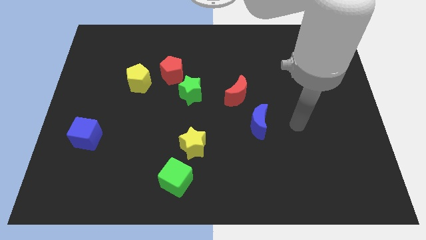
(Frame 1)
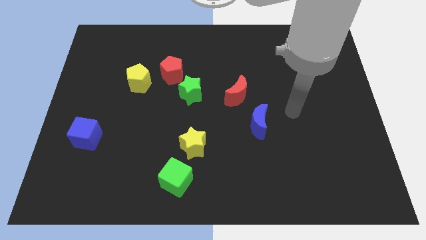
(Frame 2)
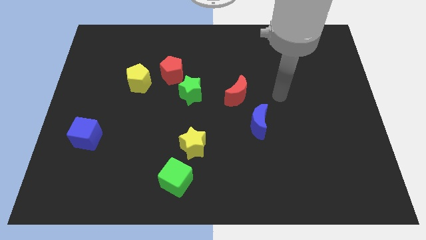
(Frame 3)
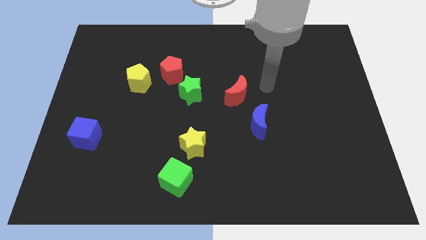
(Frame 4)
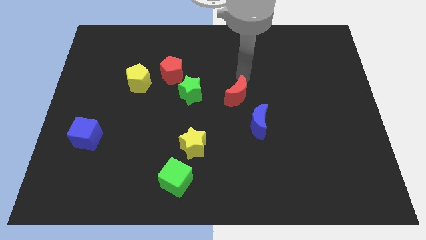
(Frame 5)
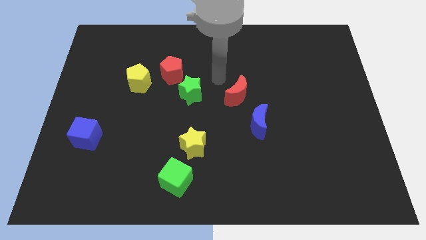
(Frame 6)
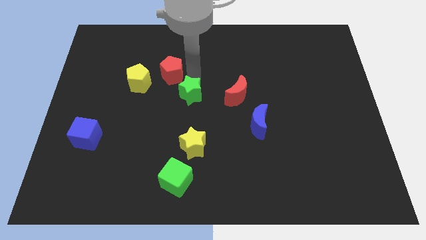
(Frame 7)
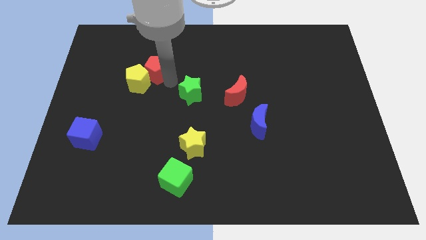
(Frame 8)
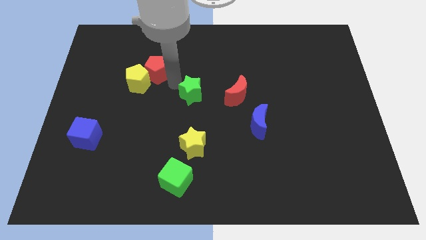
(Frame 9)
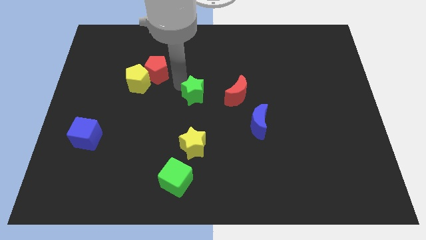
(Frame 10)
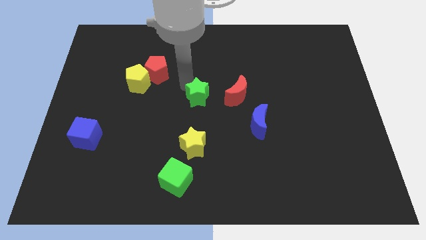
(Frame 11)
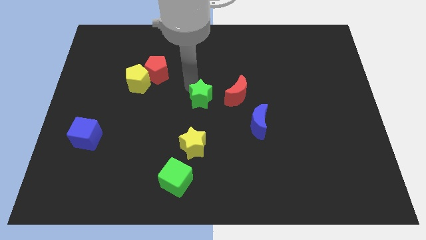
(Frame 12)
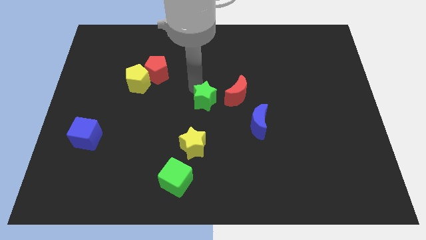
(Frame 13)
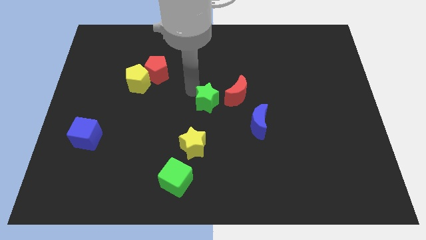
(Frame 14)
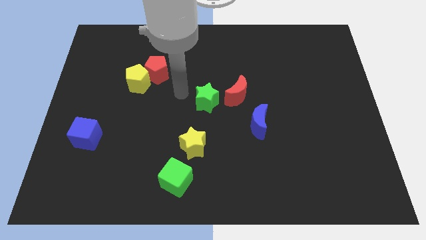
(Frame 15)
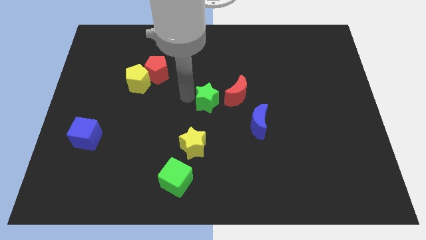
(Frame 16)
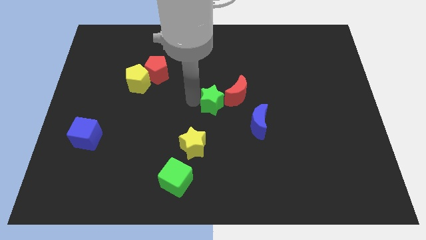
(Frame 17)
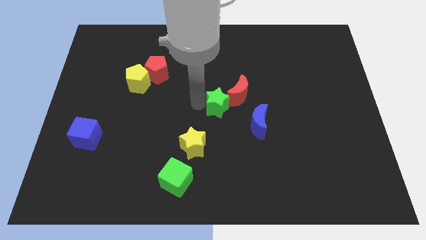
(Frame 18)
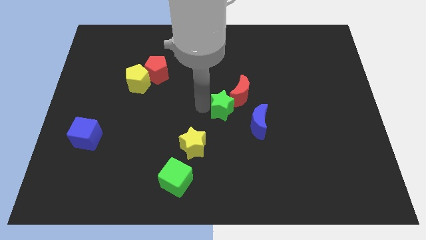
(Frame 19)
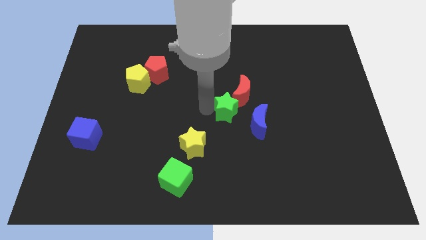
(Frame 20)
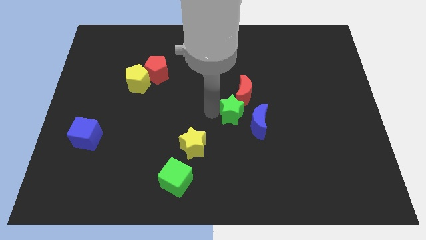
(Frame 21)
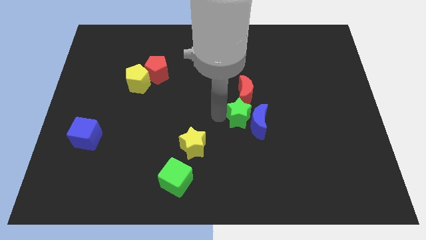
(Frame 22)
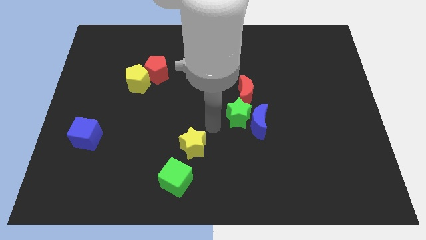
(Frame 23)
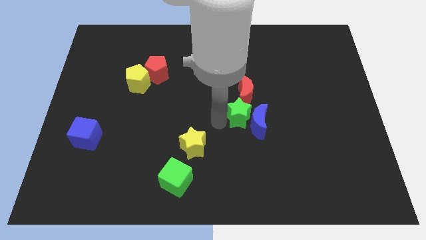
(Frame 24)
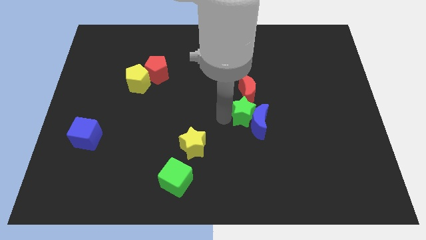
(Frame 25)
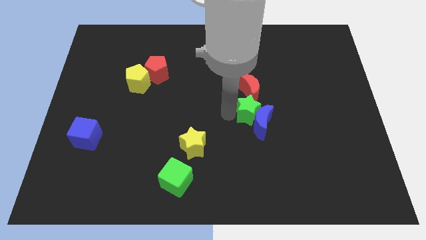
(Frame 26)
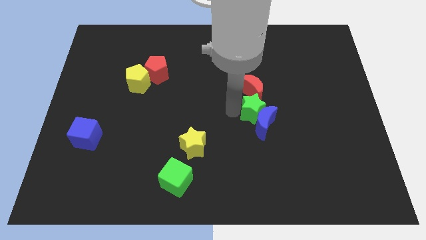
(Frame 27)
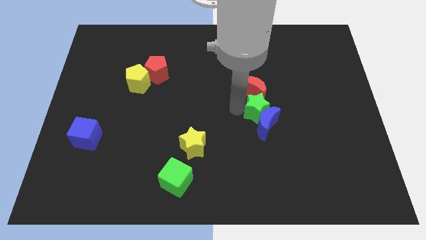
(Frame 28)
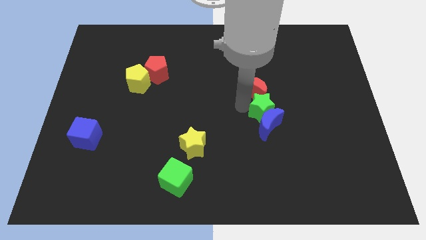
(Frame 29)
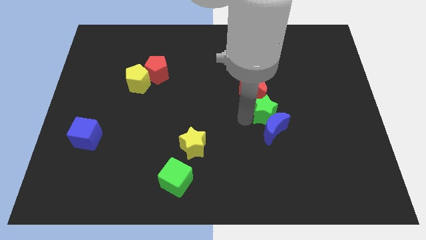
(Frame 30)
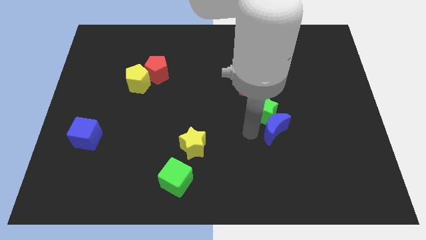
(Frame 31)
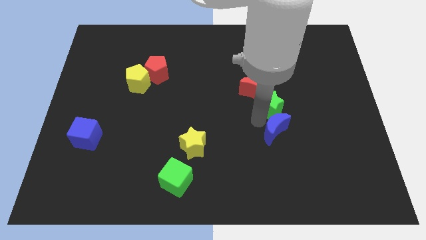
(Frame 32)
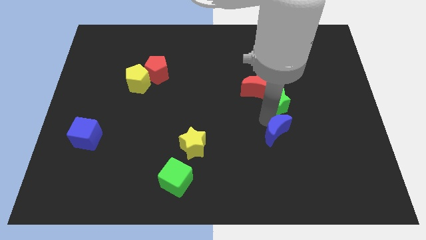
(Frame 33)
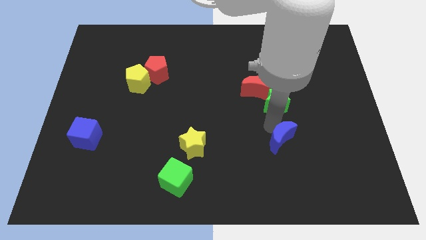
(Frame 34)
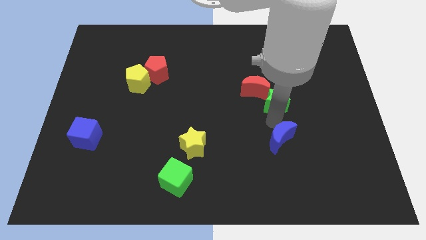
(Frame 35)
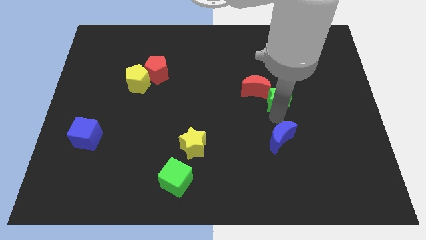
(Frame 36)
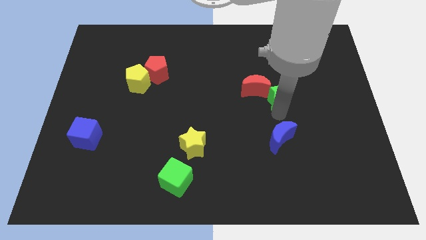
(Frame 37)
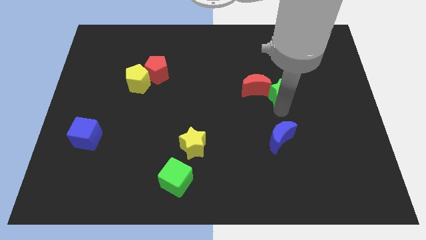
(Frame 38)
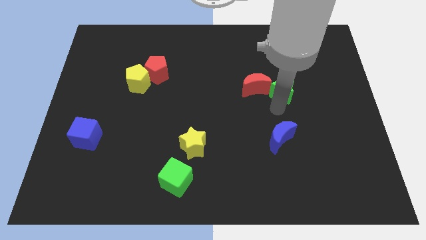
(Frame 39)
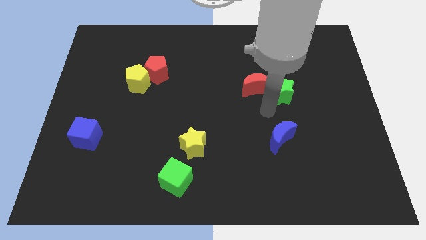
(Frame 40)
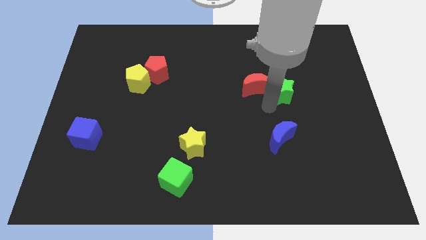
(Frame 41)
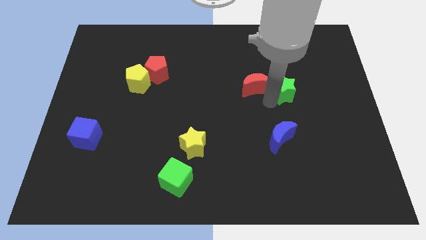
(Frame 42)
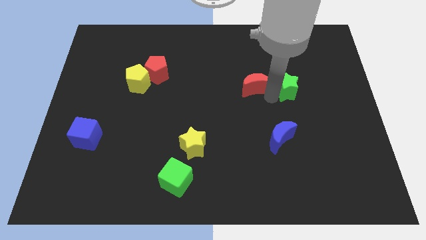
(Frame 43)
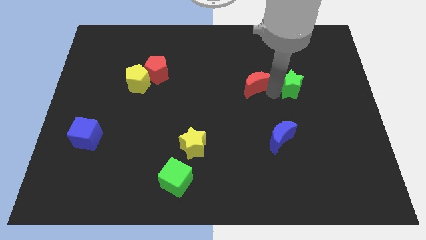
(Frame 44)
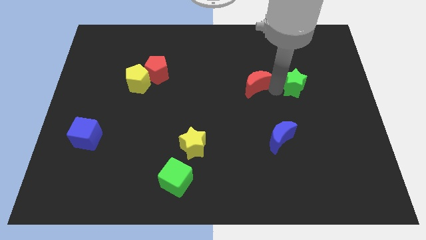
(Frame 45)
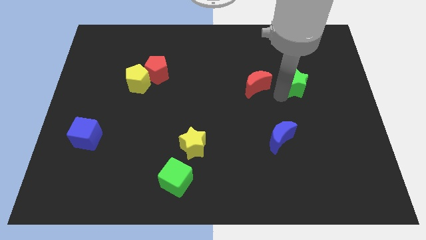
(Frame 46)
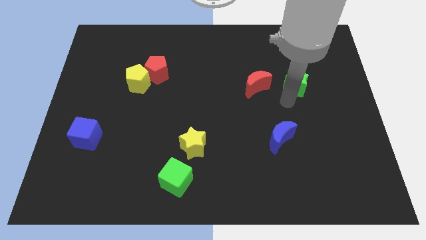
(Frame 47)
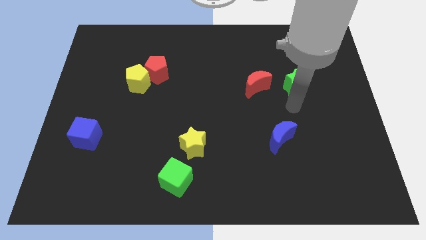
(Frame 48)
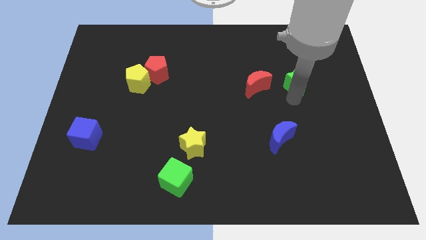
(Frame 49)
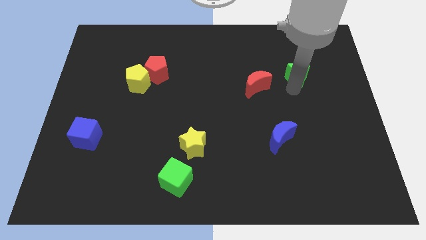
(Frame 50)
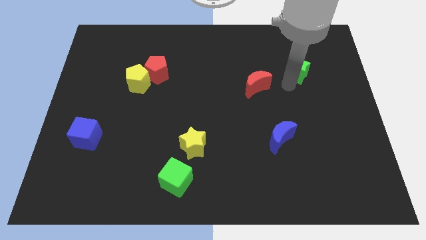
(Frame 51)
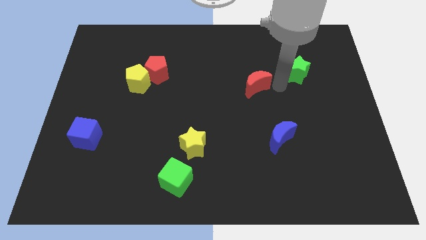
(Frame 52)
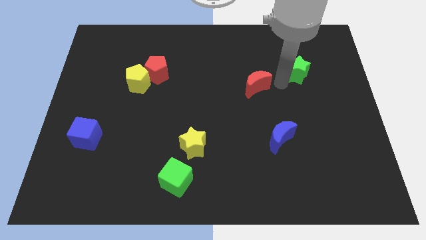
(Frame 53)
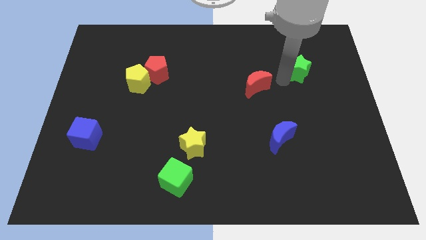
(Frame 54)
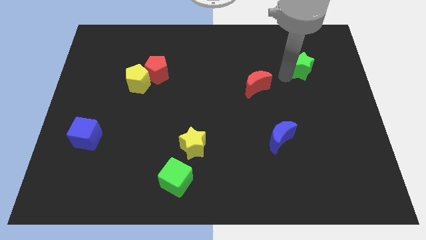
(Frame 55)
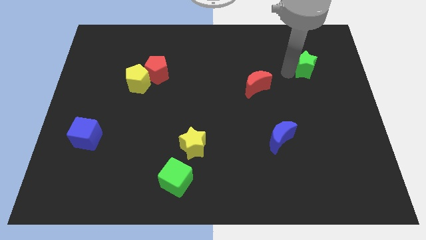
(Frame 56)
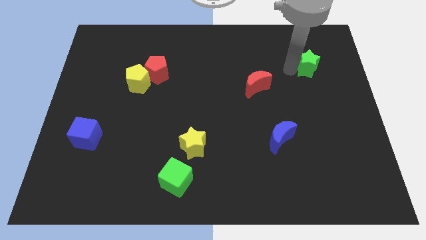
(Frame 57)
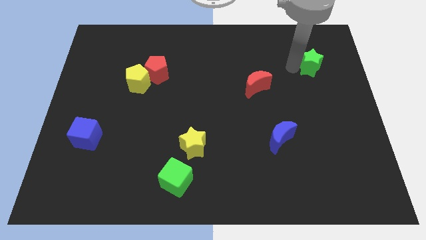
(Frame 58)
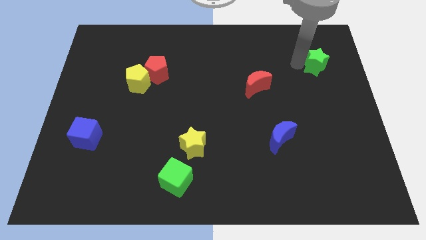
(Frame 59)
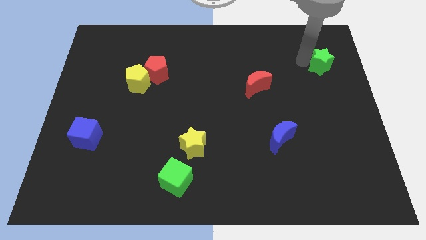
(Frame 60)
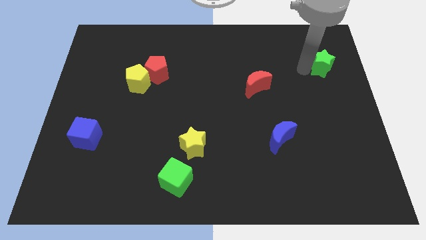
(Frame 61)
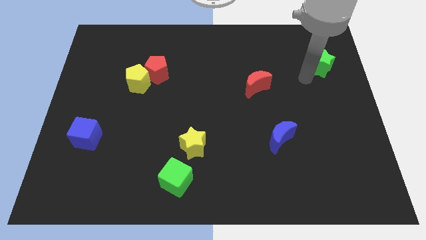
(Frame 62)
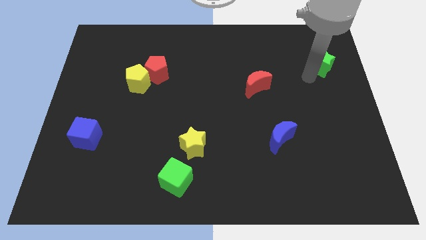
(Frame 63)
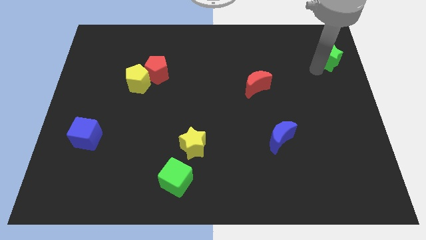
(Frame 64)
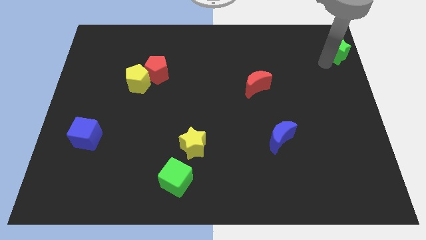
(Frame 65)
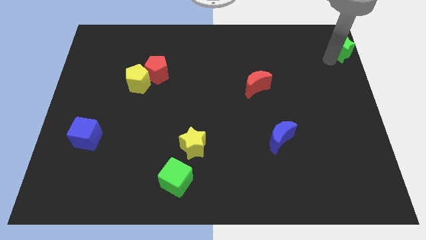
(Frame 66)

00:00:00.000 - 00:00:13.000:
push the green star to the top right of the board
